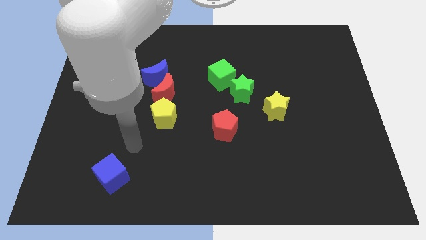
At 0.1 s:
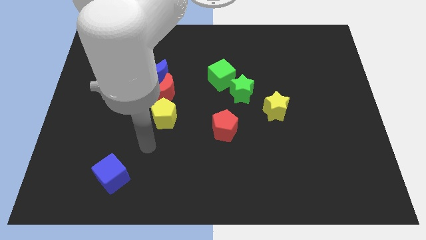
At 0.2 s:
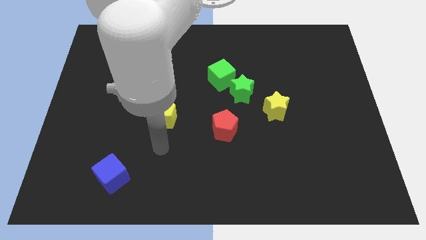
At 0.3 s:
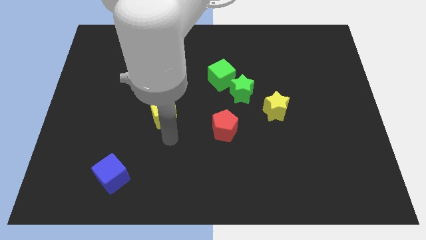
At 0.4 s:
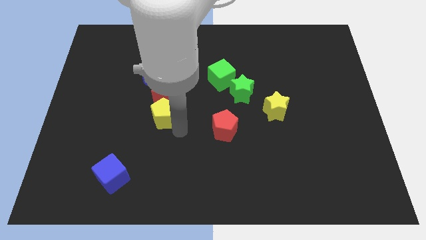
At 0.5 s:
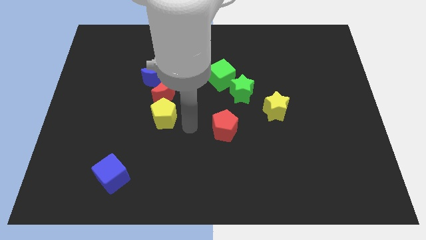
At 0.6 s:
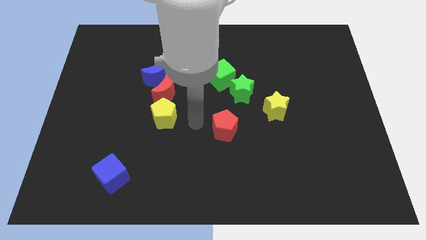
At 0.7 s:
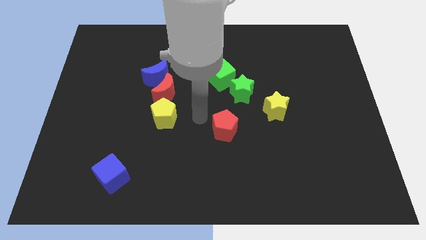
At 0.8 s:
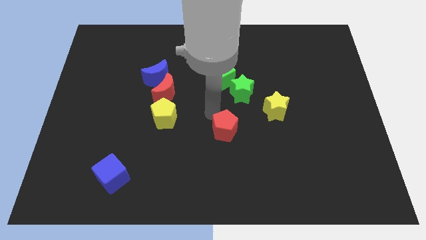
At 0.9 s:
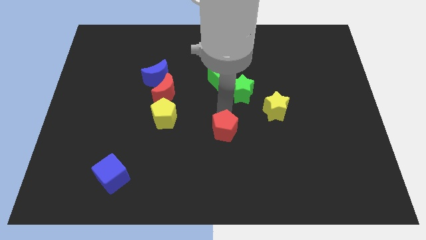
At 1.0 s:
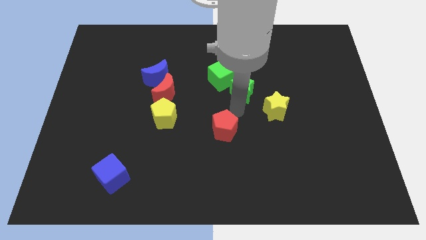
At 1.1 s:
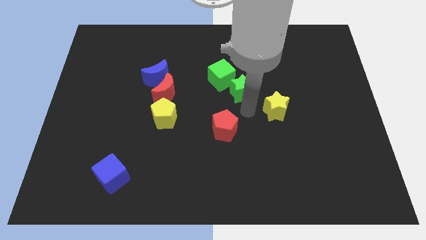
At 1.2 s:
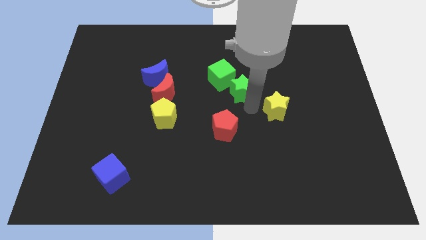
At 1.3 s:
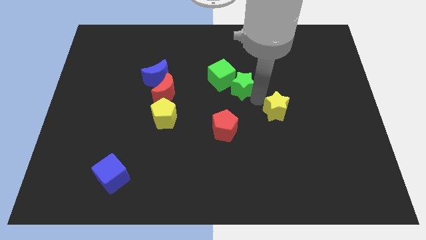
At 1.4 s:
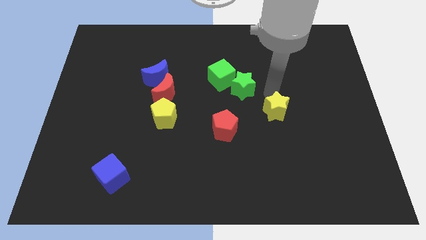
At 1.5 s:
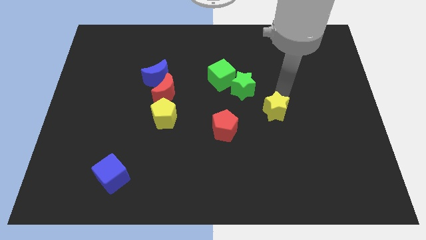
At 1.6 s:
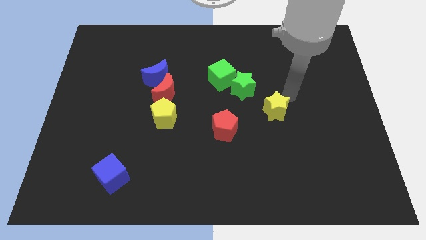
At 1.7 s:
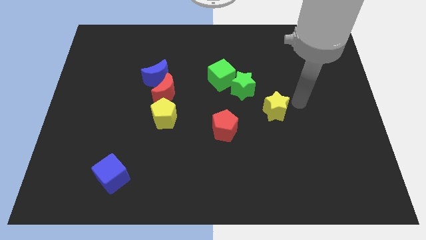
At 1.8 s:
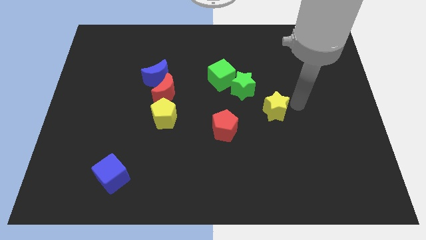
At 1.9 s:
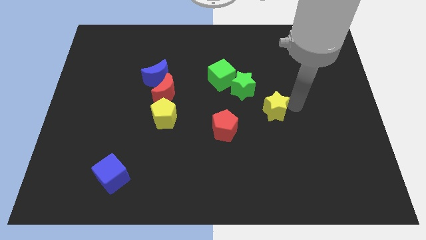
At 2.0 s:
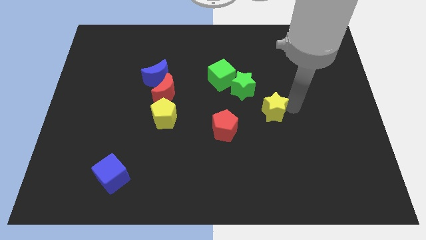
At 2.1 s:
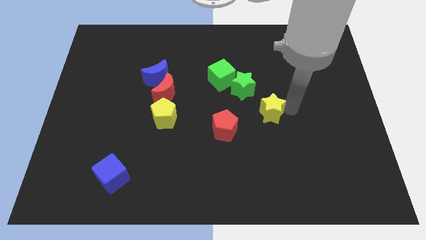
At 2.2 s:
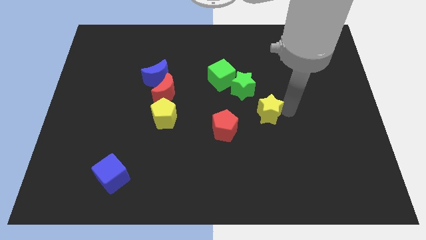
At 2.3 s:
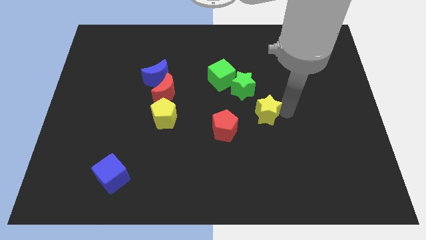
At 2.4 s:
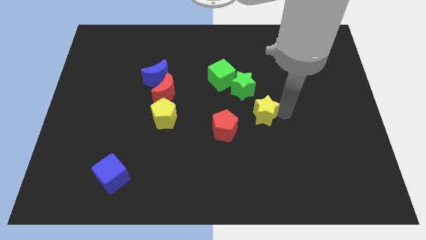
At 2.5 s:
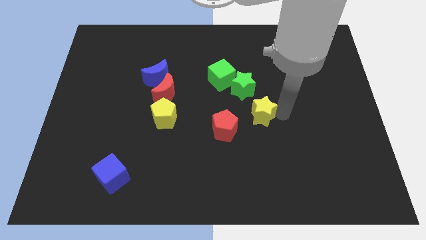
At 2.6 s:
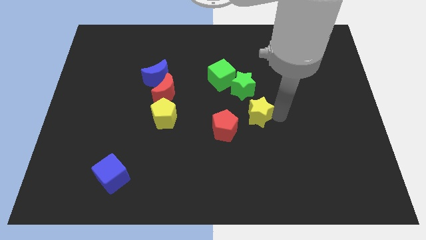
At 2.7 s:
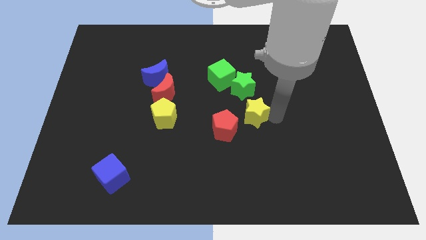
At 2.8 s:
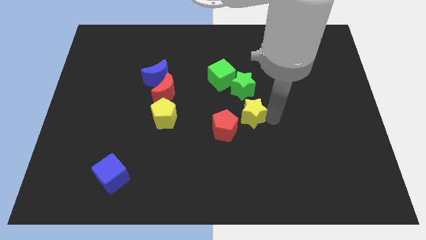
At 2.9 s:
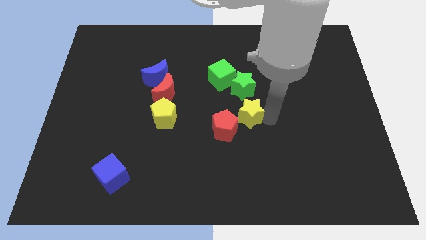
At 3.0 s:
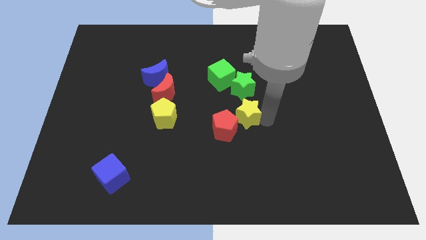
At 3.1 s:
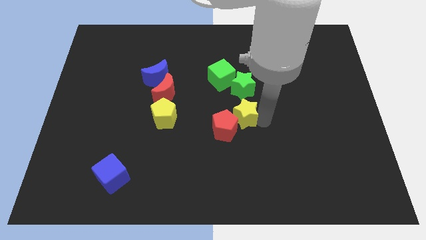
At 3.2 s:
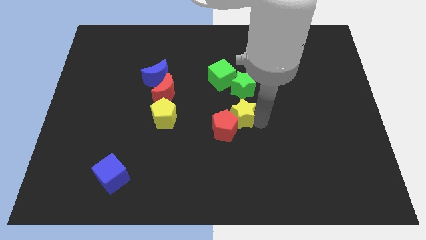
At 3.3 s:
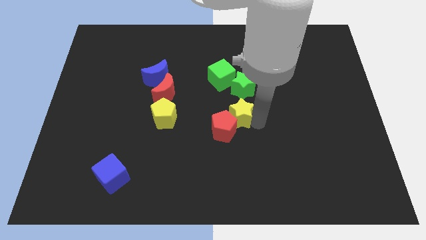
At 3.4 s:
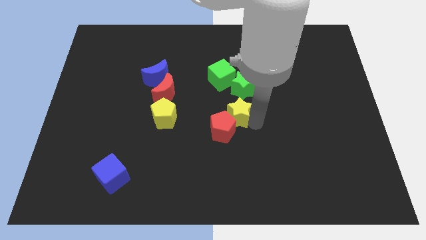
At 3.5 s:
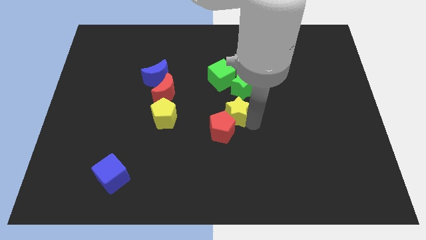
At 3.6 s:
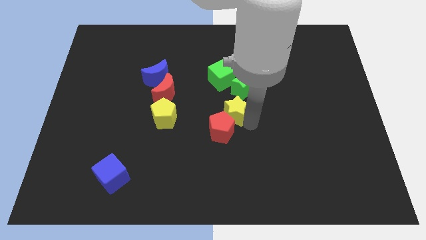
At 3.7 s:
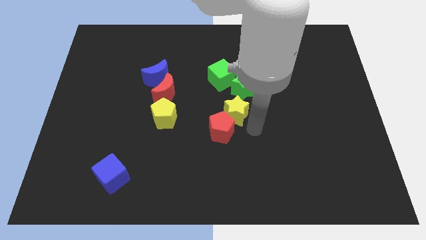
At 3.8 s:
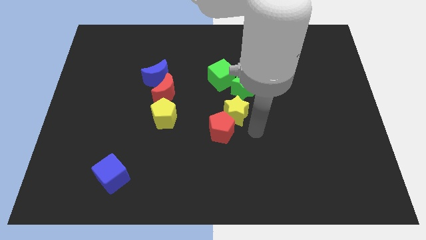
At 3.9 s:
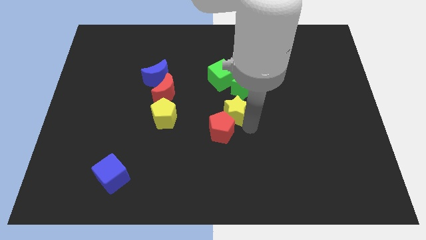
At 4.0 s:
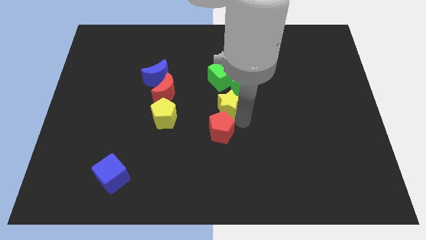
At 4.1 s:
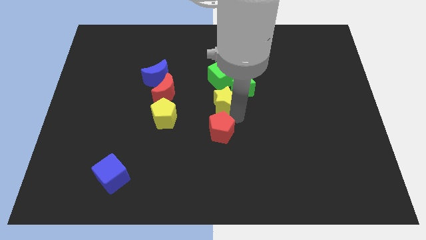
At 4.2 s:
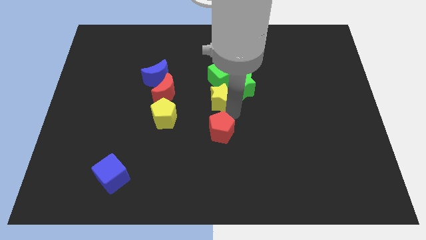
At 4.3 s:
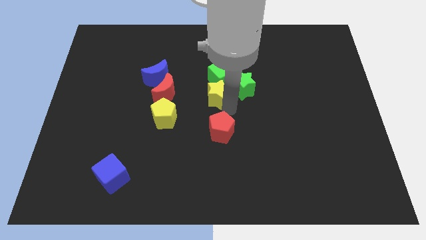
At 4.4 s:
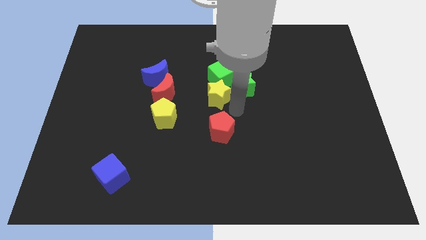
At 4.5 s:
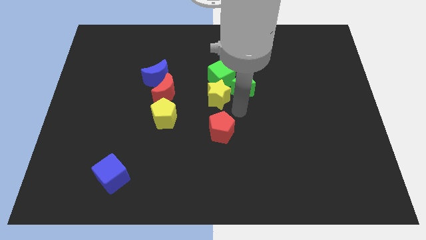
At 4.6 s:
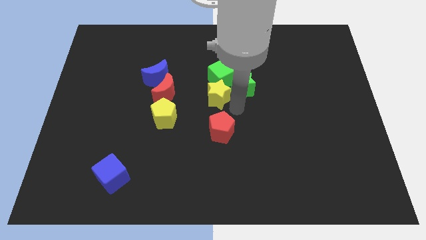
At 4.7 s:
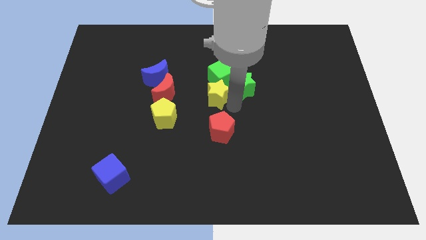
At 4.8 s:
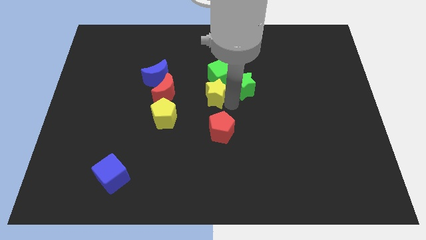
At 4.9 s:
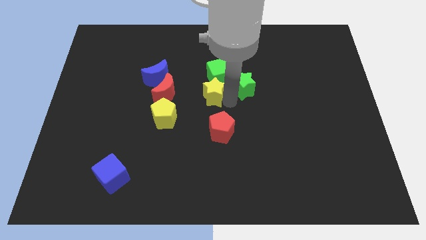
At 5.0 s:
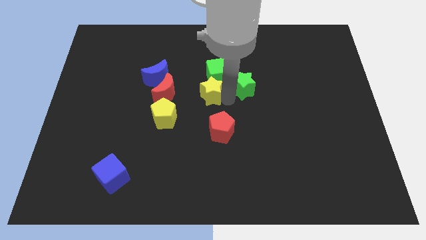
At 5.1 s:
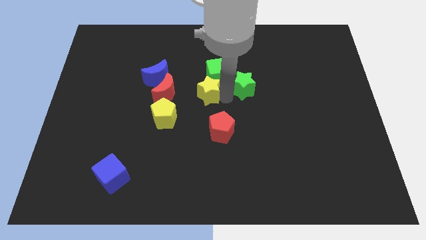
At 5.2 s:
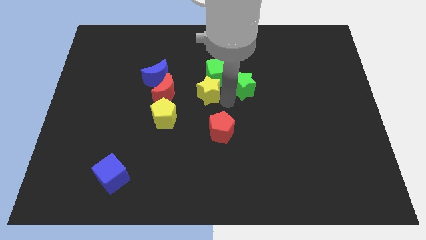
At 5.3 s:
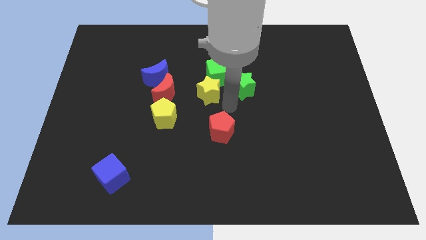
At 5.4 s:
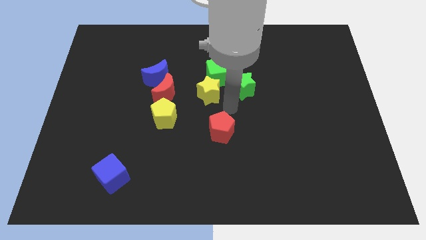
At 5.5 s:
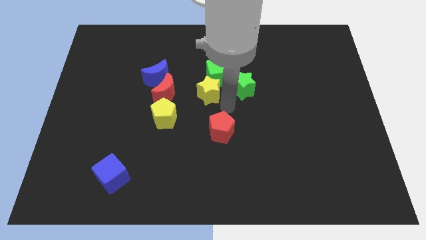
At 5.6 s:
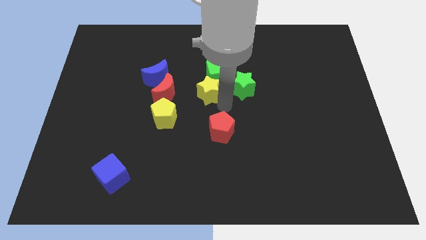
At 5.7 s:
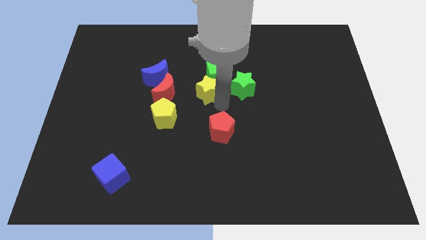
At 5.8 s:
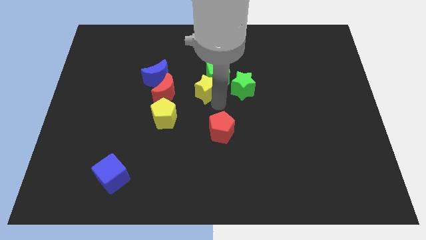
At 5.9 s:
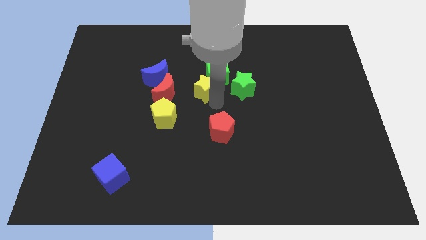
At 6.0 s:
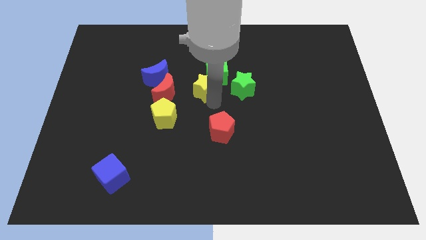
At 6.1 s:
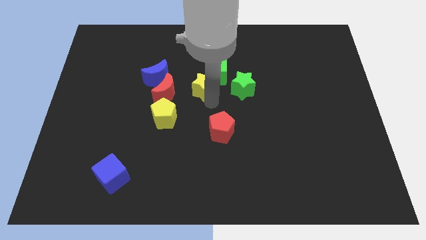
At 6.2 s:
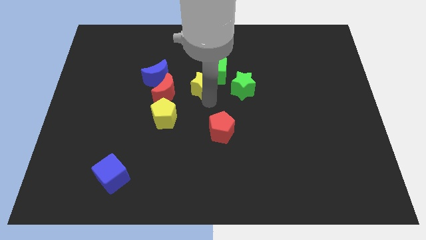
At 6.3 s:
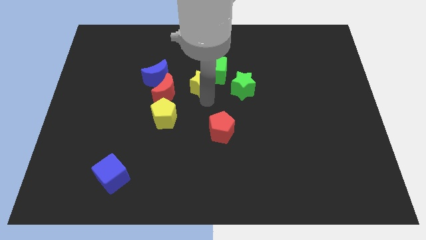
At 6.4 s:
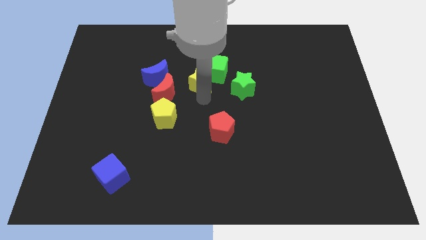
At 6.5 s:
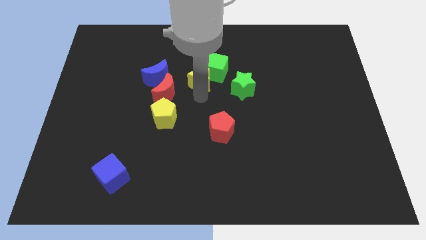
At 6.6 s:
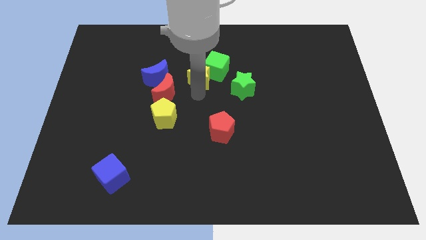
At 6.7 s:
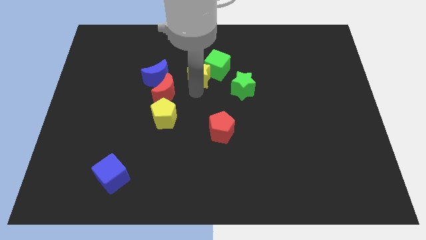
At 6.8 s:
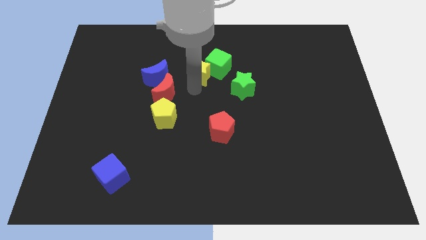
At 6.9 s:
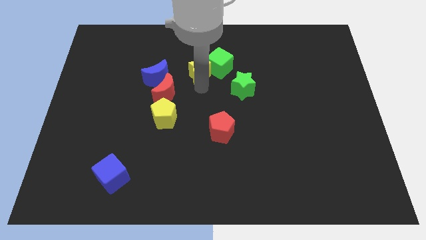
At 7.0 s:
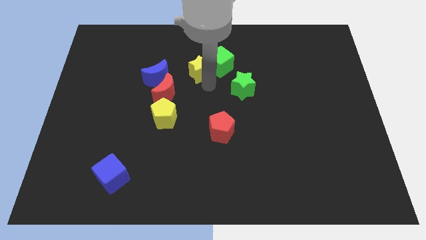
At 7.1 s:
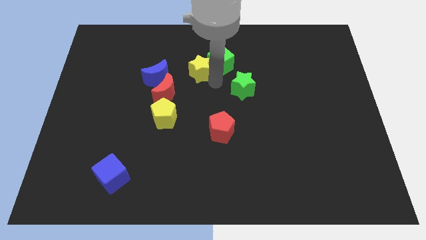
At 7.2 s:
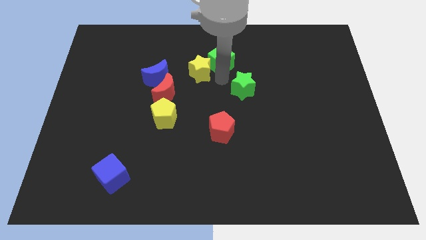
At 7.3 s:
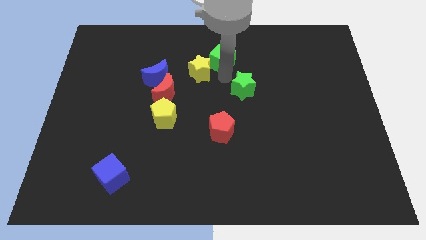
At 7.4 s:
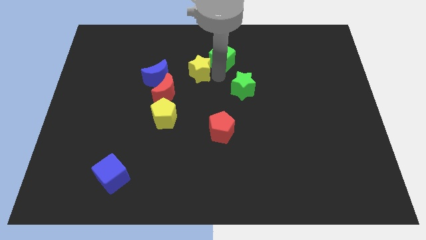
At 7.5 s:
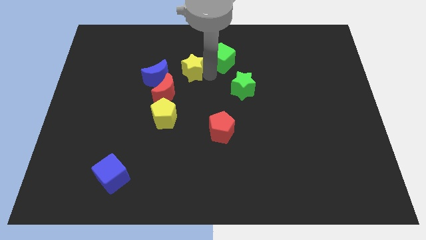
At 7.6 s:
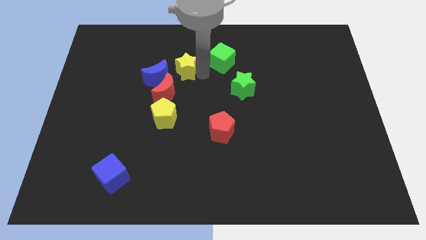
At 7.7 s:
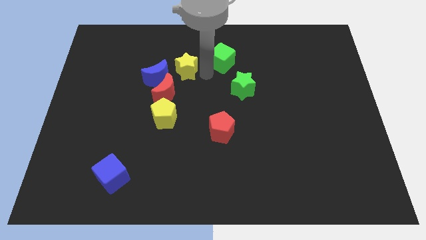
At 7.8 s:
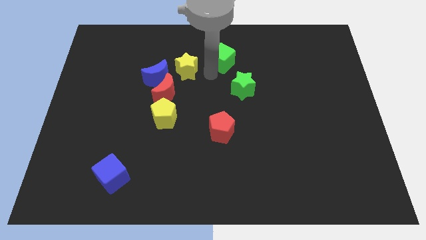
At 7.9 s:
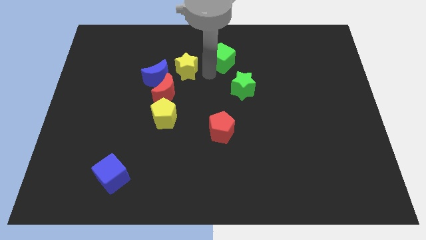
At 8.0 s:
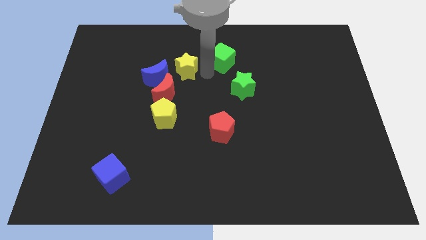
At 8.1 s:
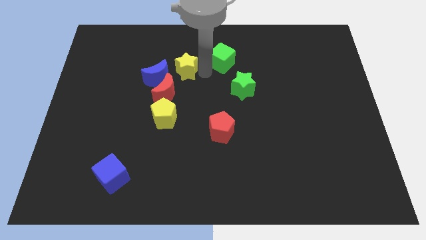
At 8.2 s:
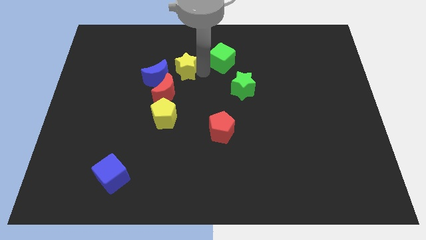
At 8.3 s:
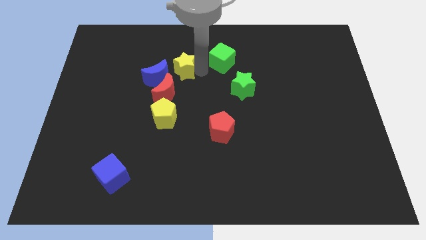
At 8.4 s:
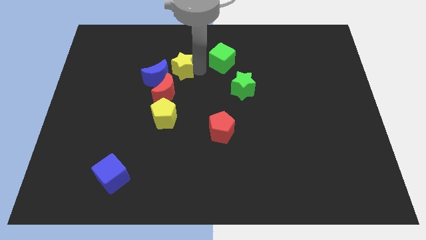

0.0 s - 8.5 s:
push the yellow star to the top side of the yellow pentagon
